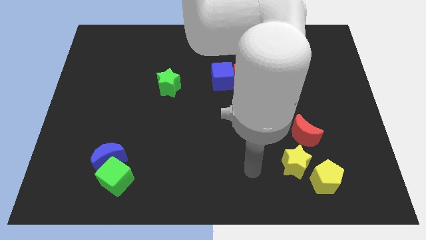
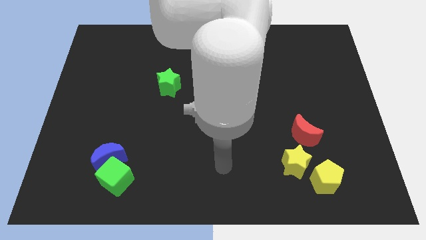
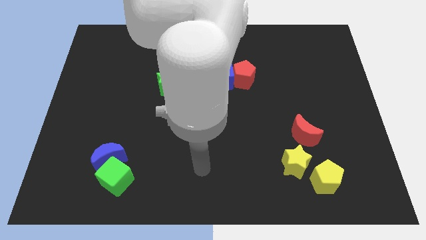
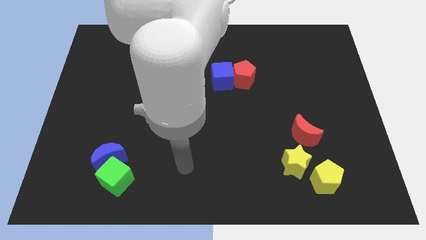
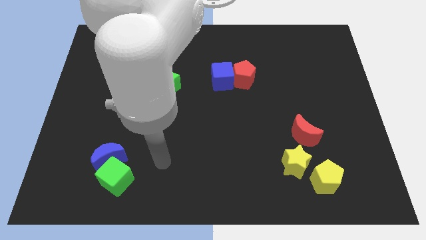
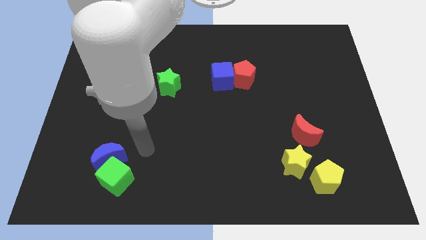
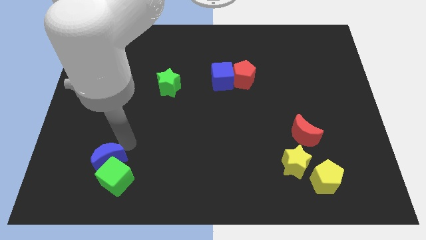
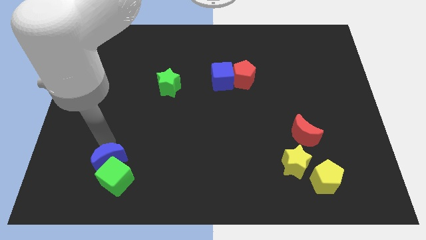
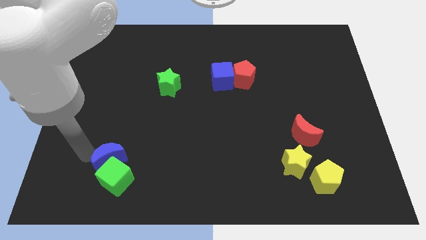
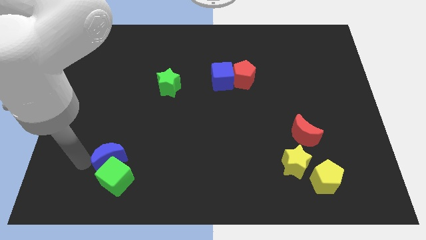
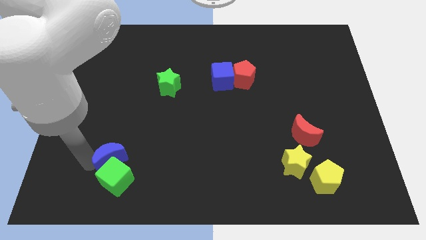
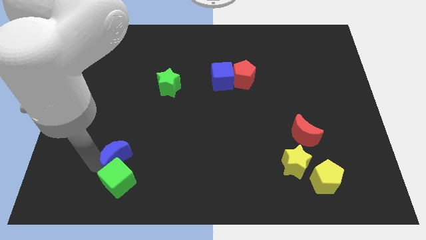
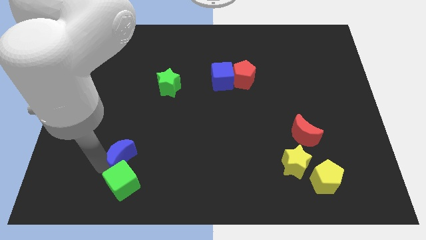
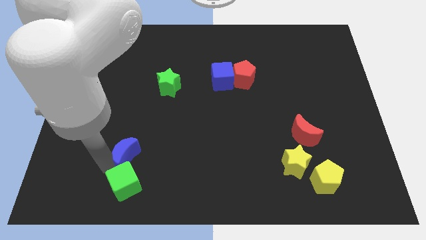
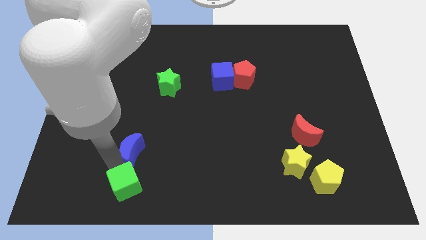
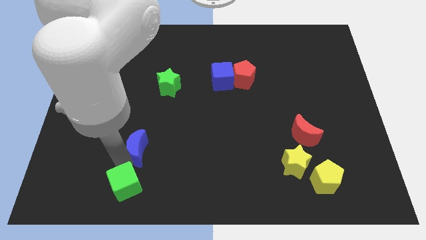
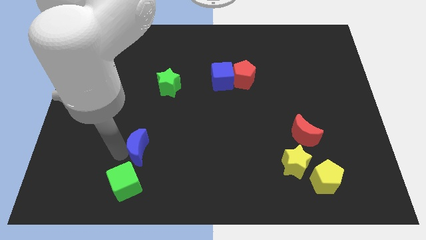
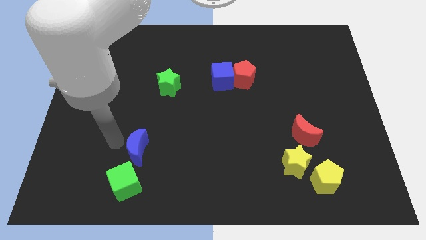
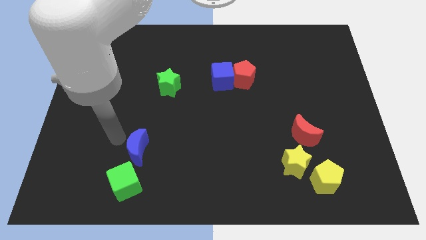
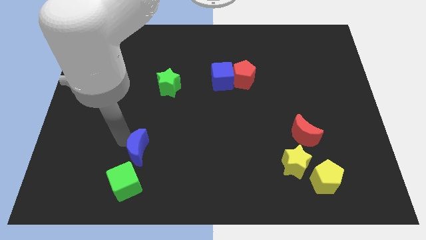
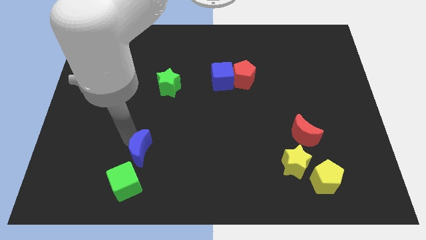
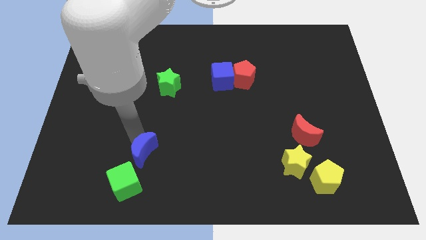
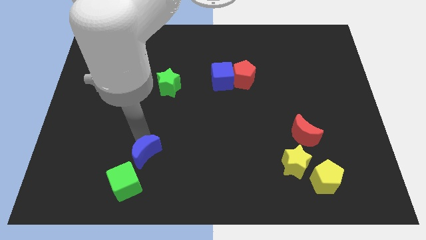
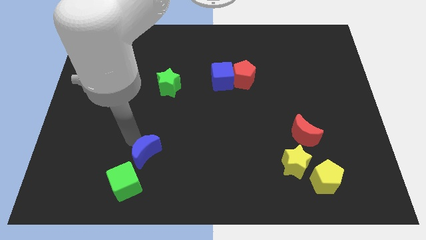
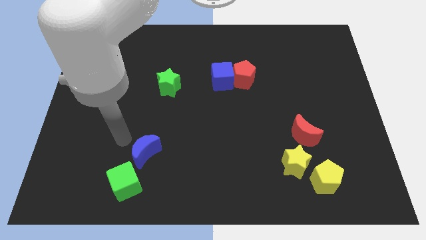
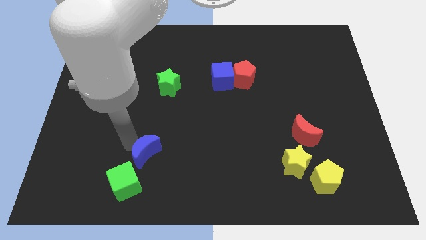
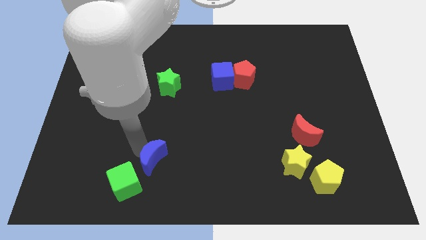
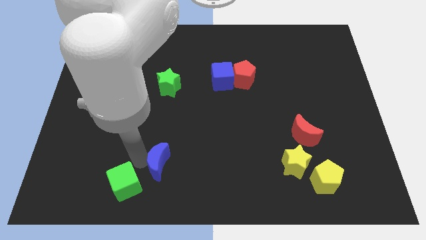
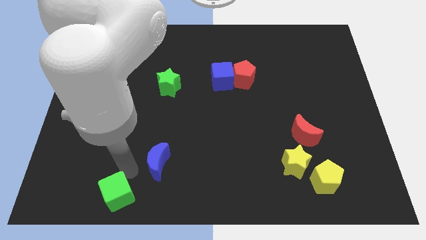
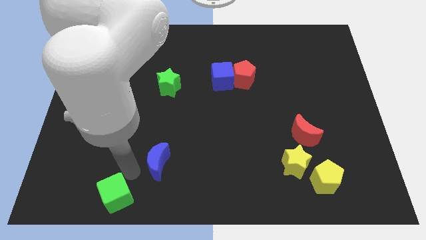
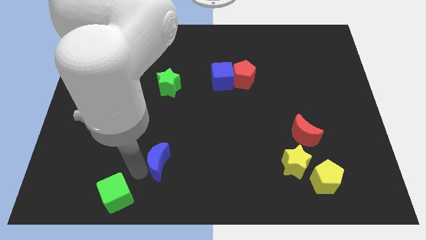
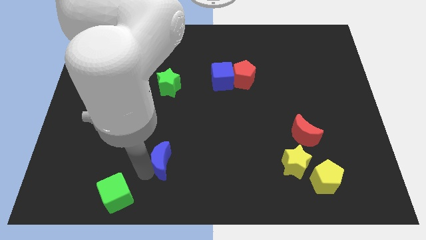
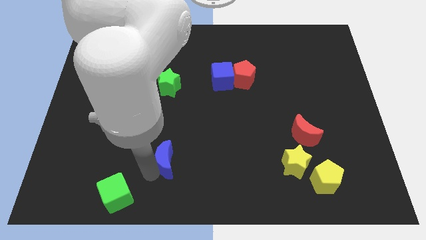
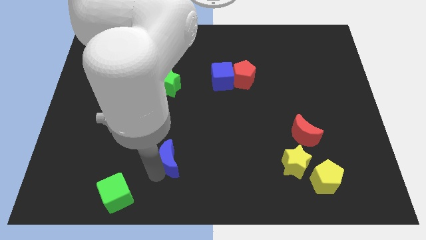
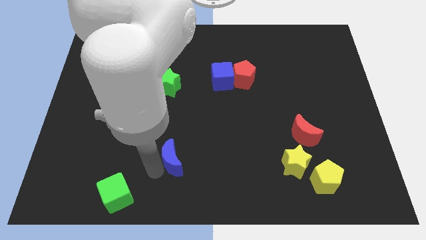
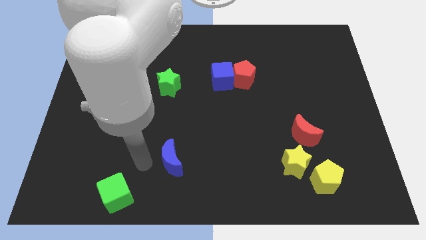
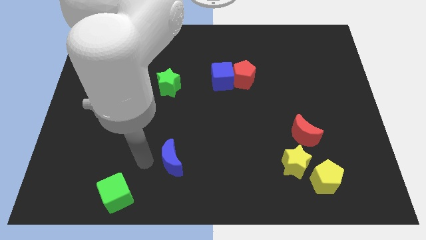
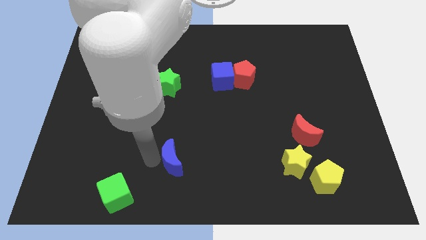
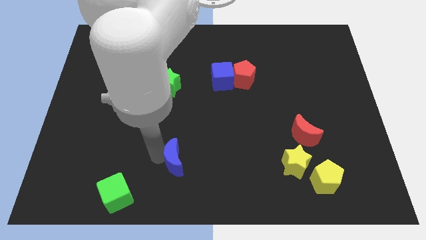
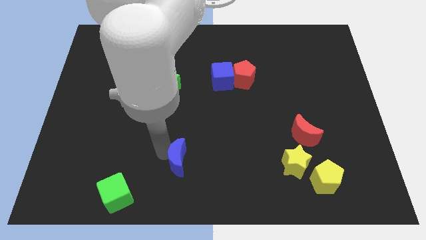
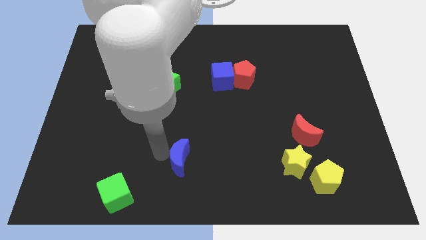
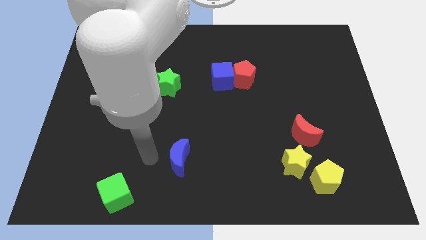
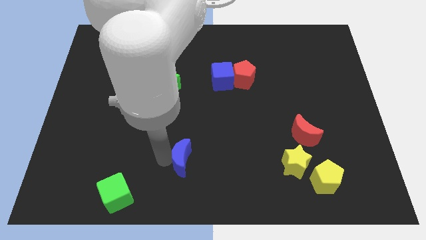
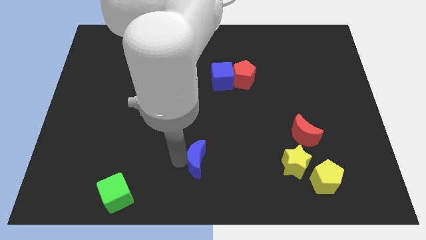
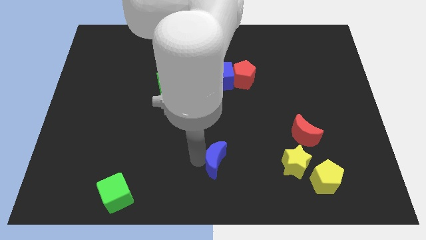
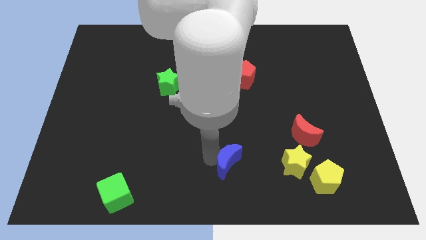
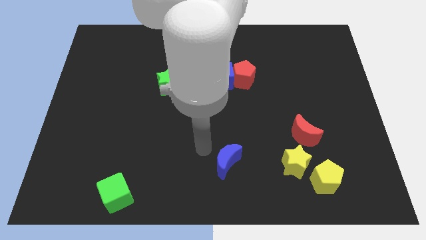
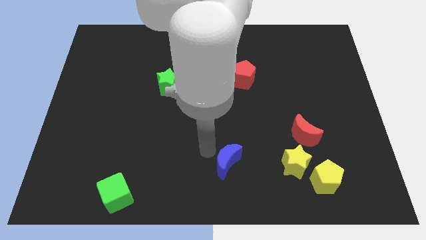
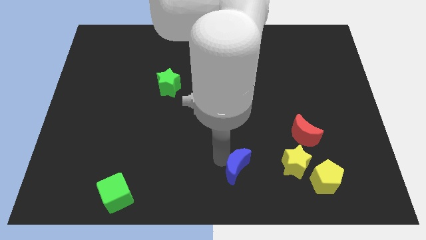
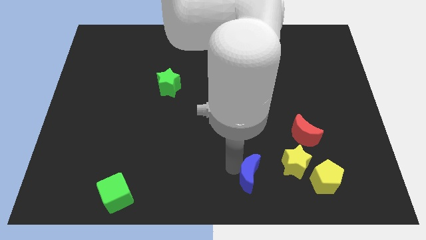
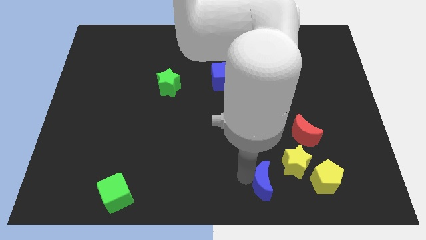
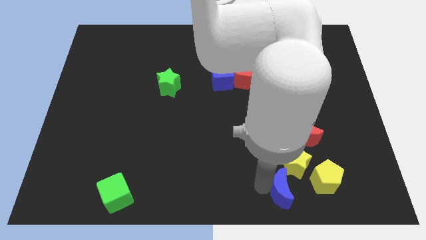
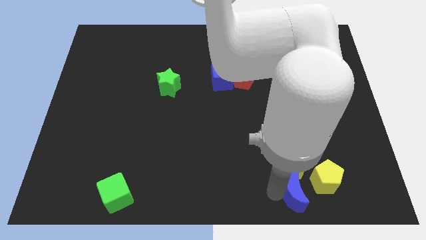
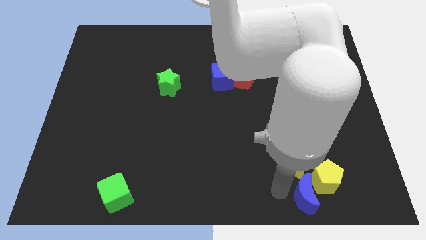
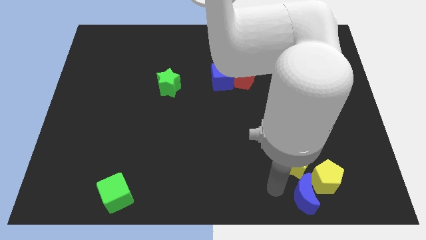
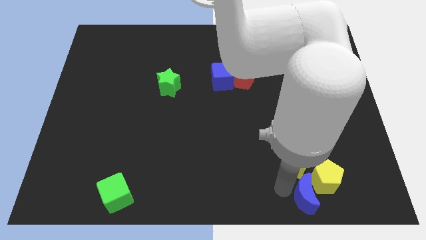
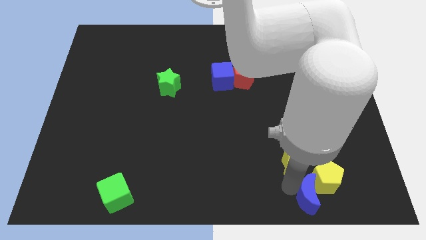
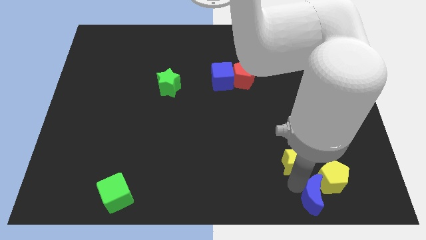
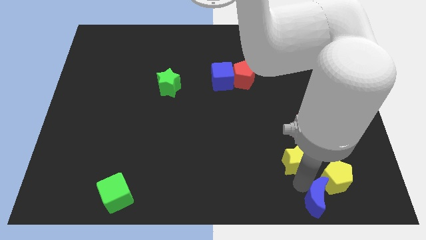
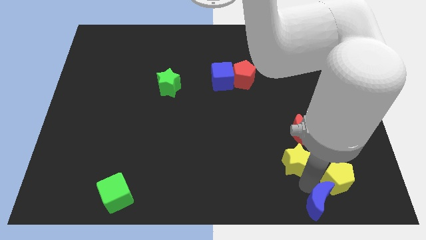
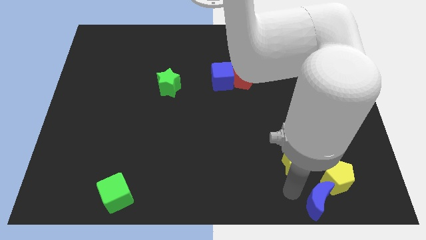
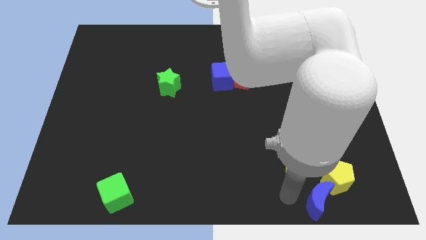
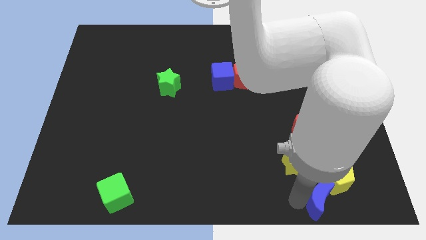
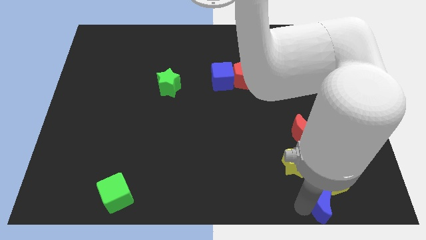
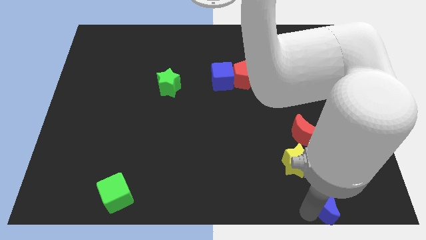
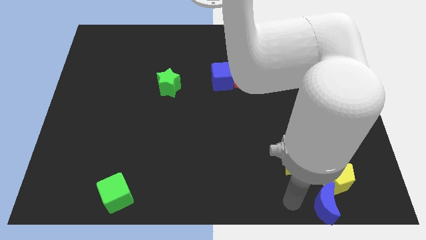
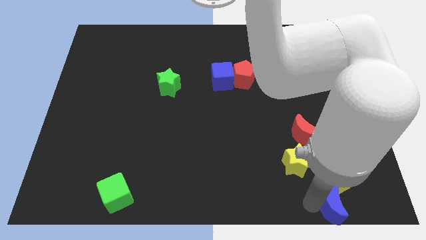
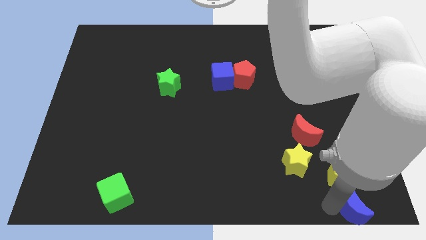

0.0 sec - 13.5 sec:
move the blue moon to the lower right corner

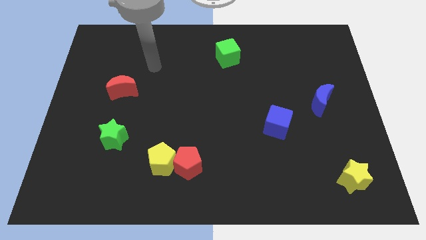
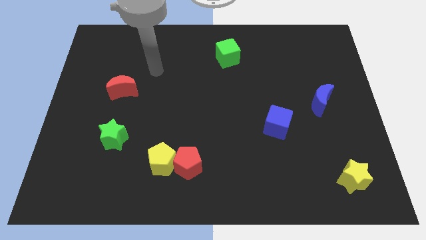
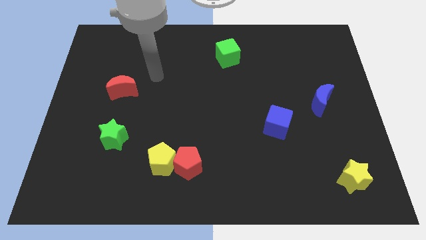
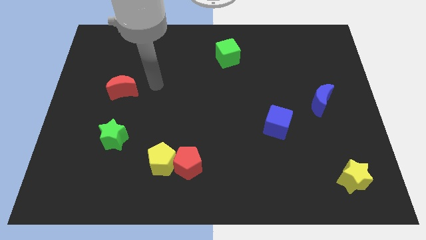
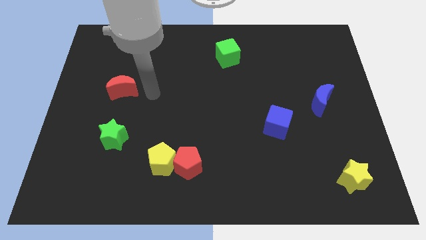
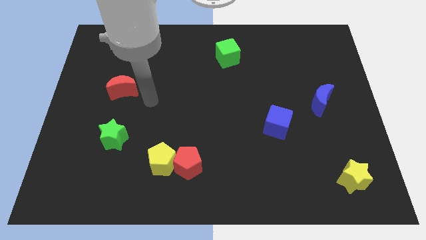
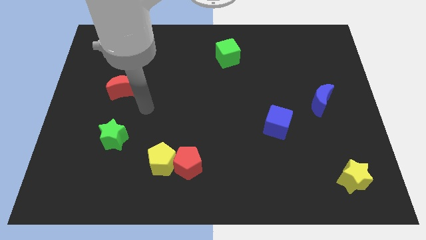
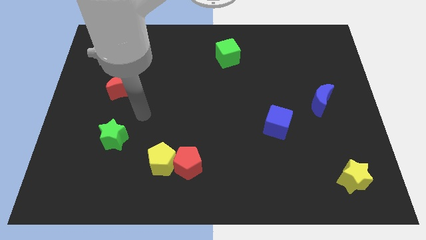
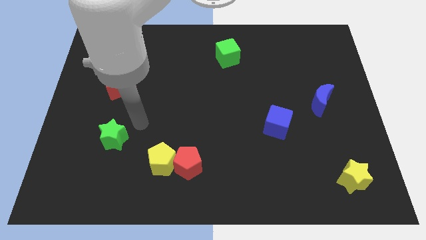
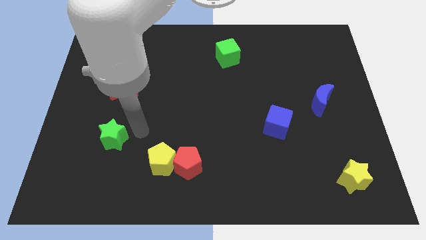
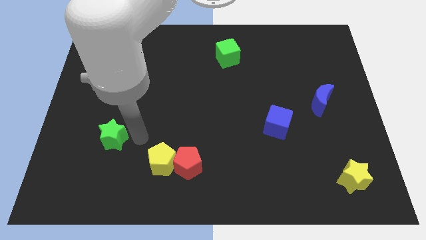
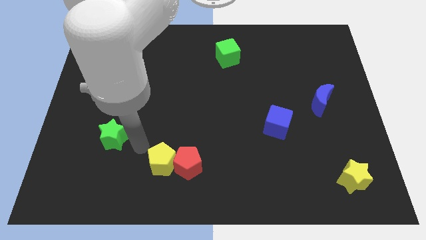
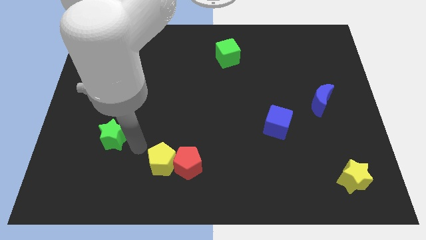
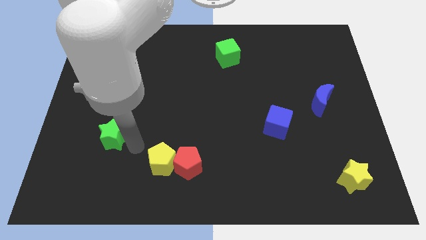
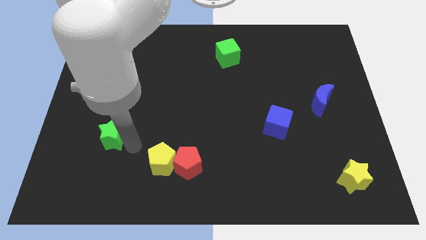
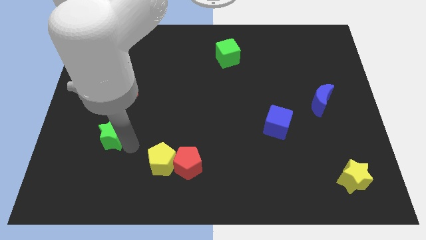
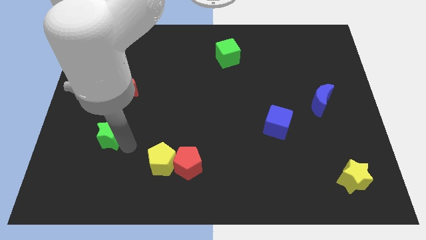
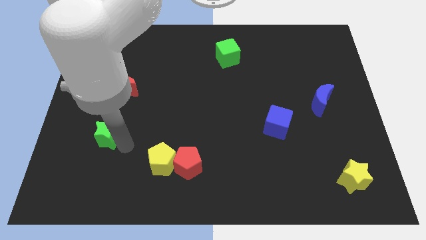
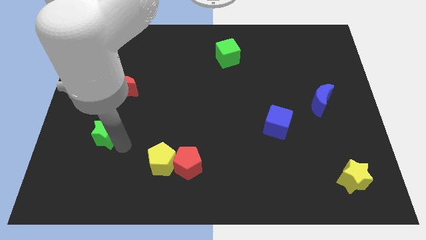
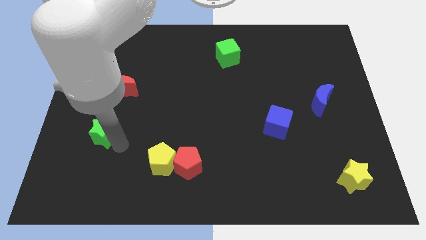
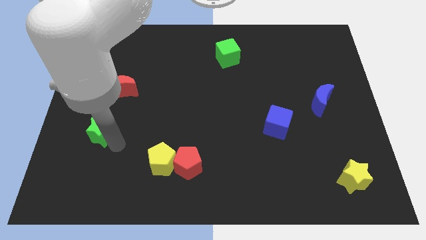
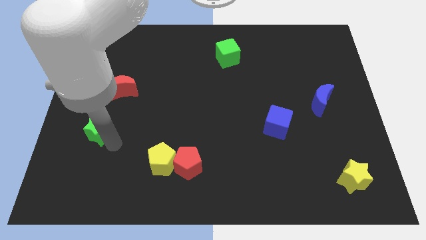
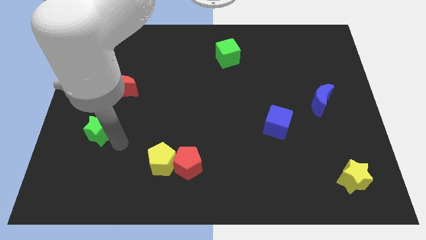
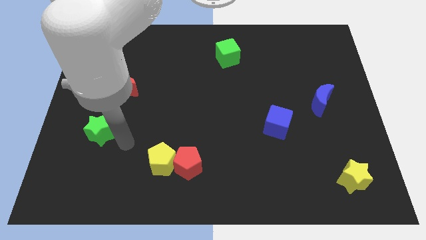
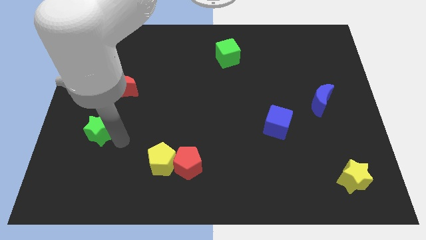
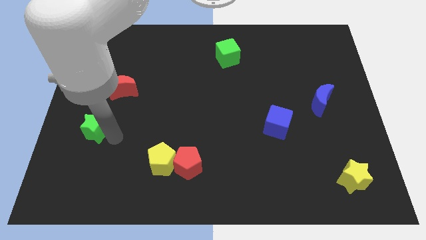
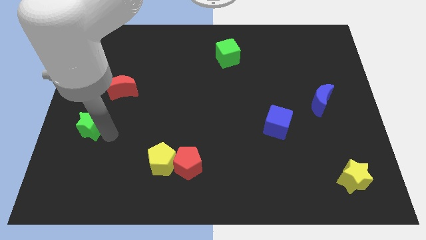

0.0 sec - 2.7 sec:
move the green star to the center left
